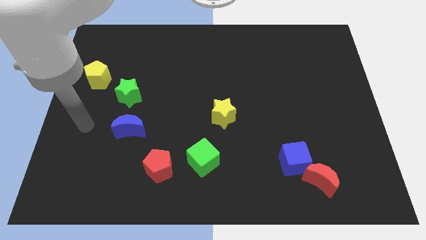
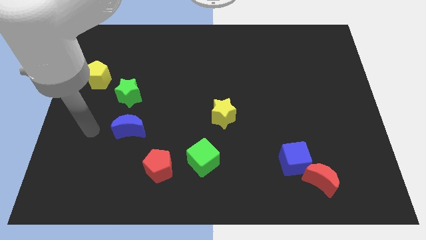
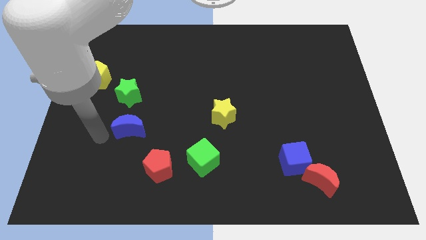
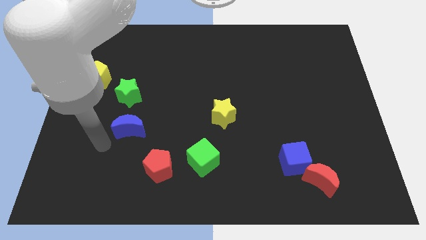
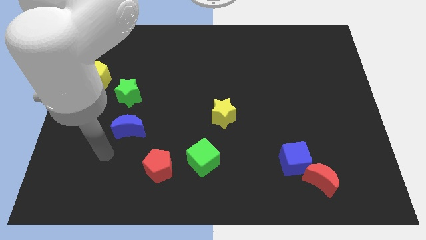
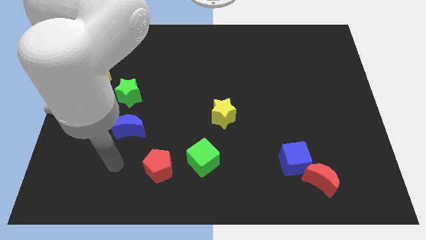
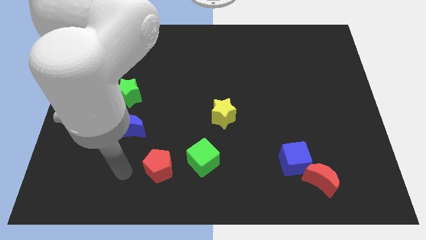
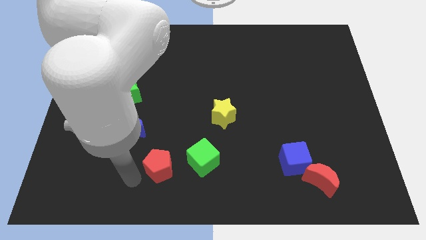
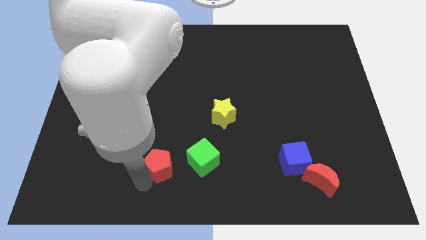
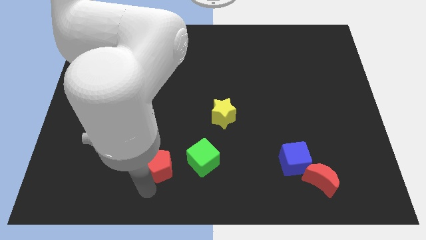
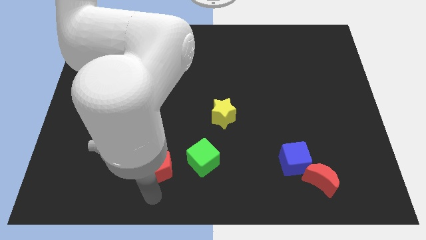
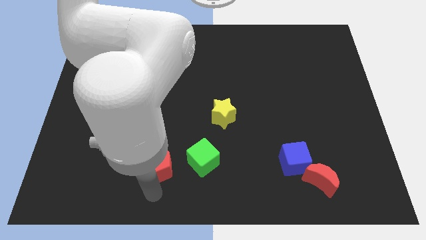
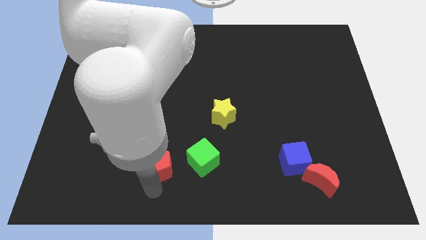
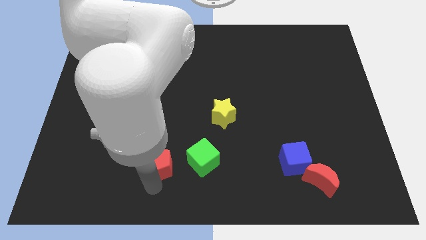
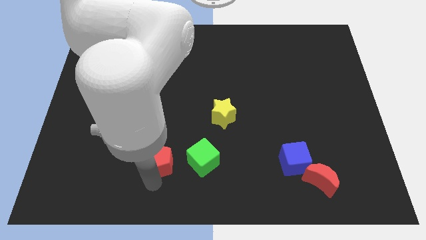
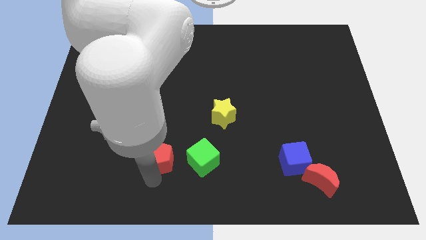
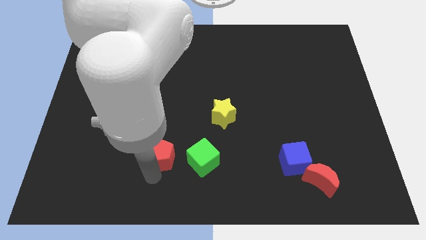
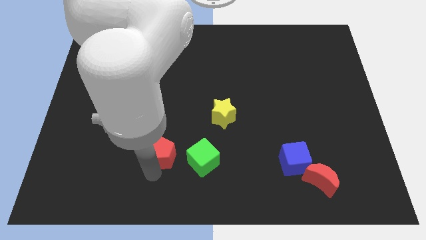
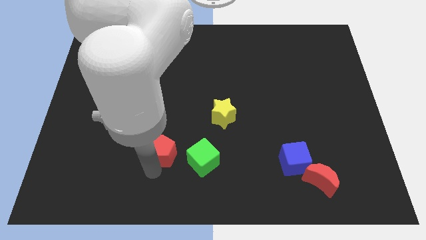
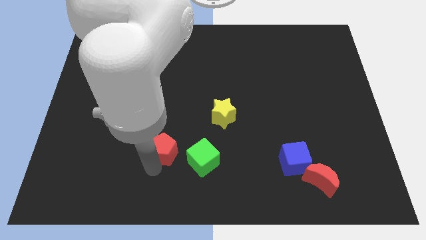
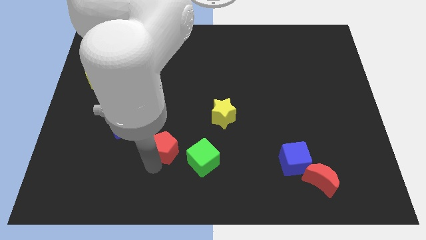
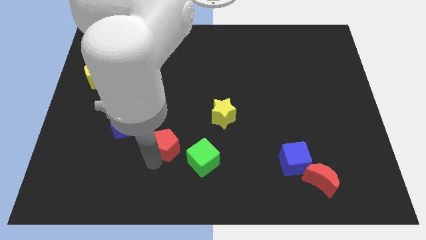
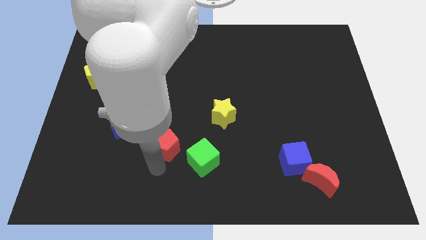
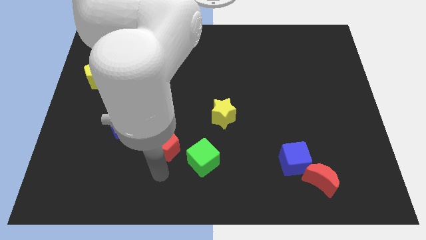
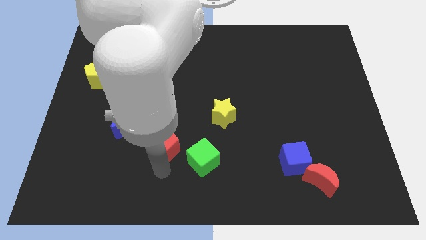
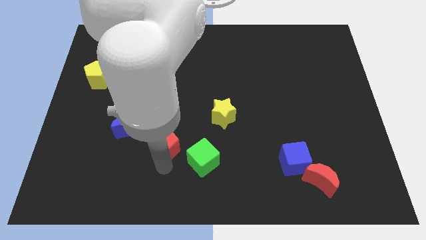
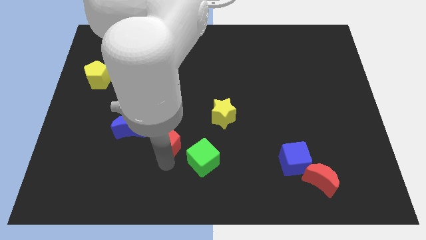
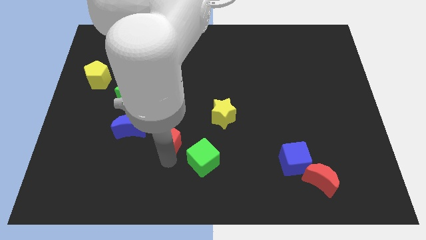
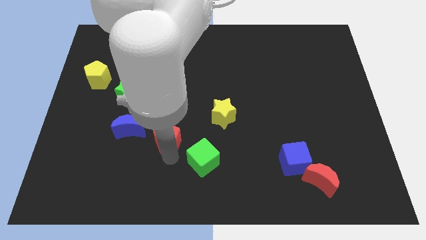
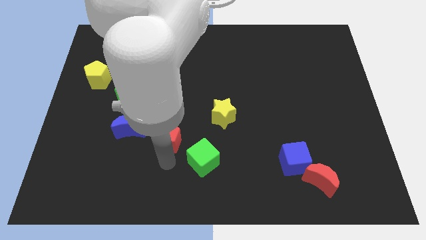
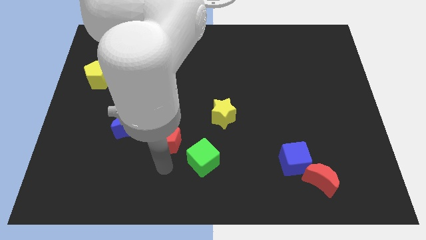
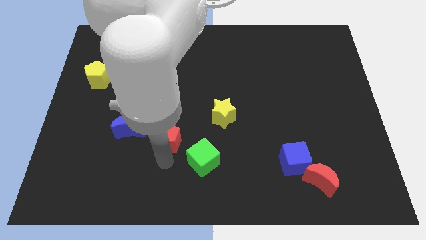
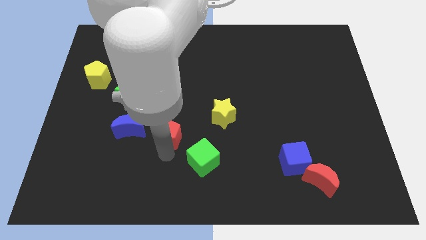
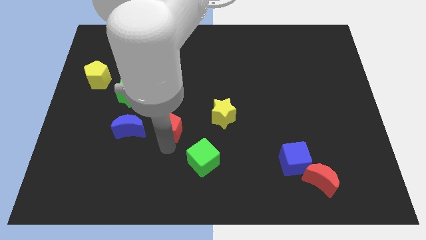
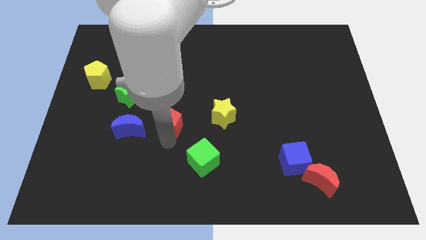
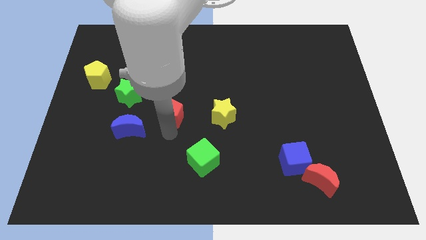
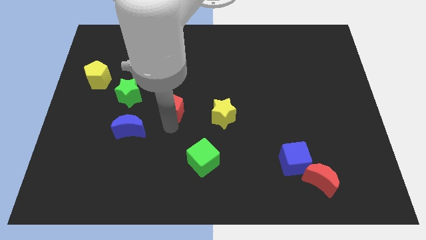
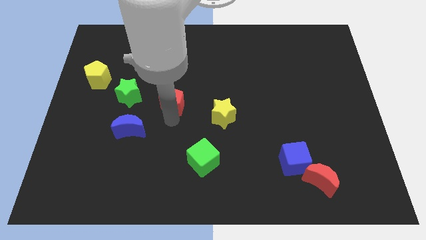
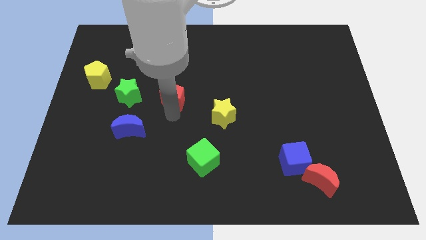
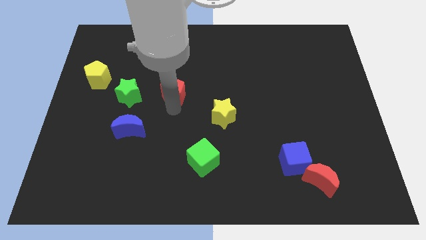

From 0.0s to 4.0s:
push the red pentagon upwards

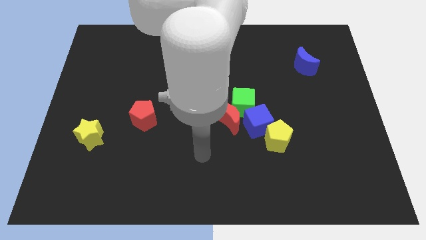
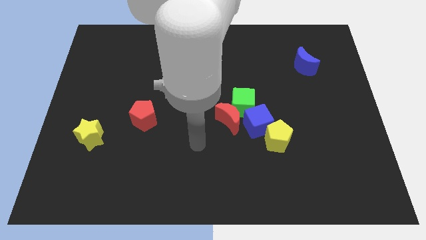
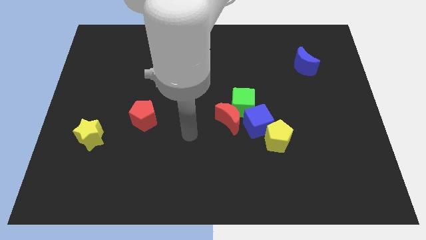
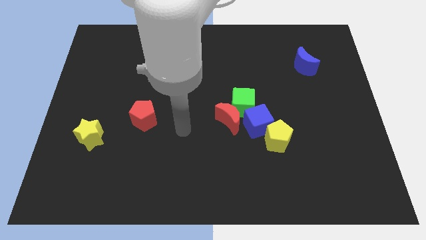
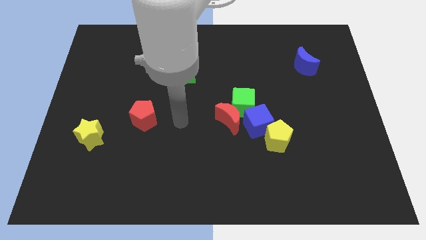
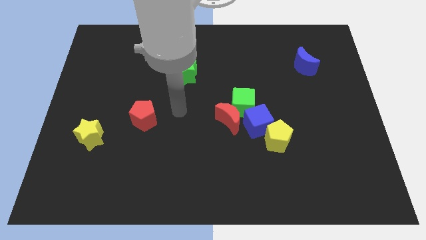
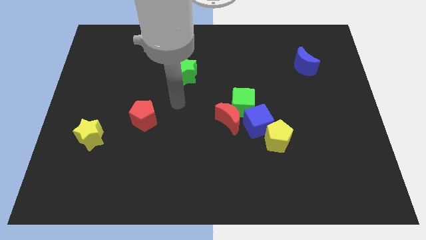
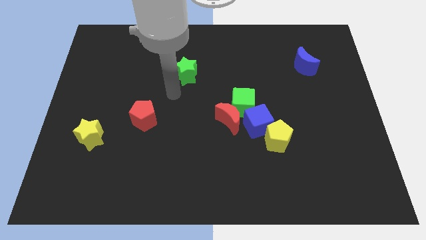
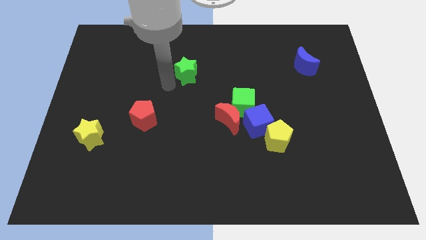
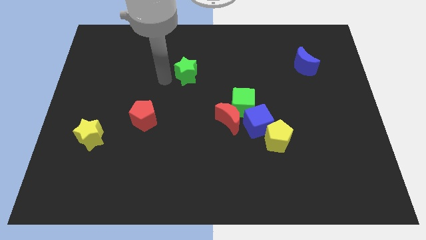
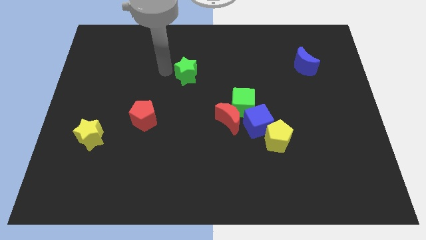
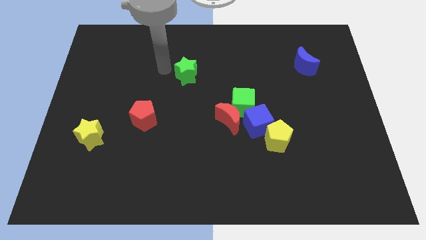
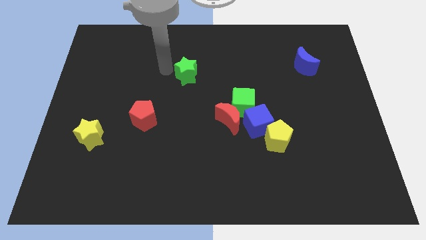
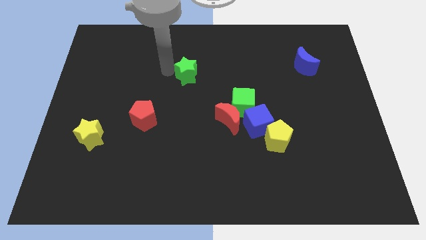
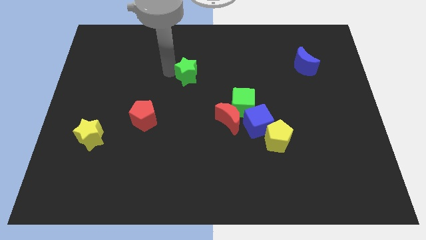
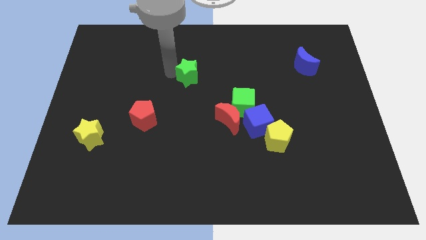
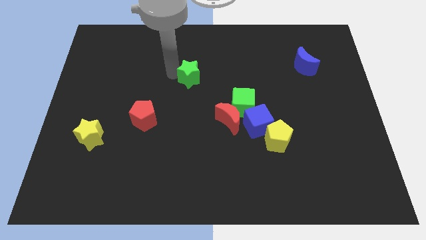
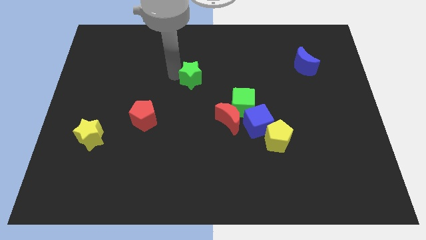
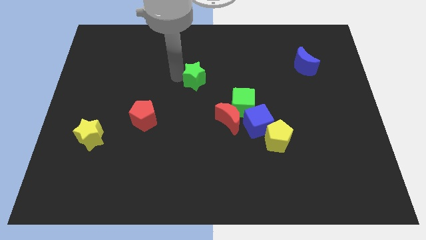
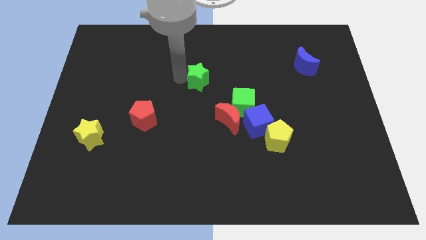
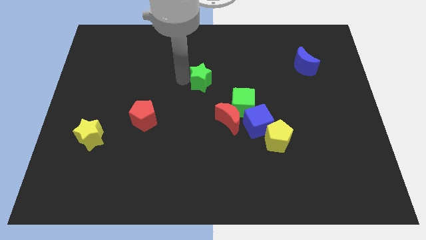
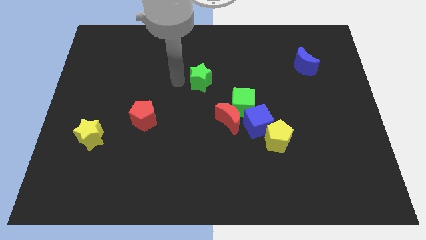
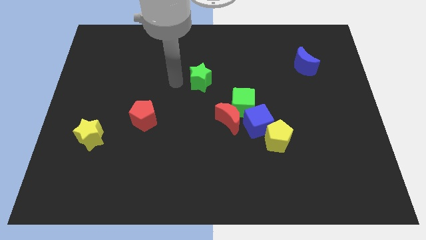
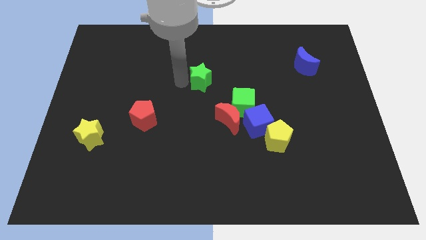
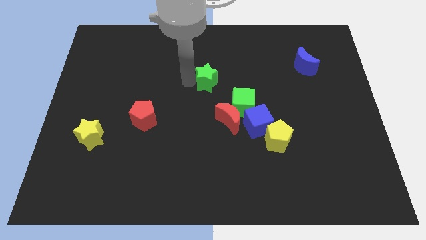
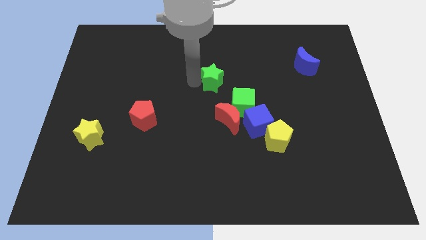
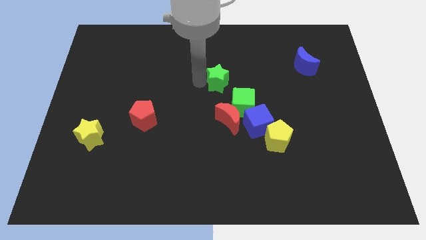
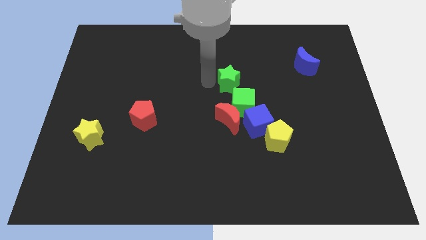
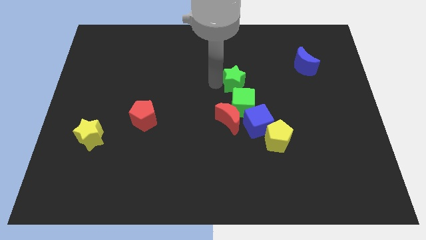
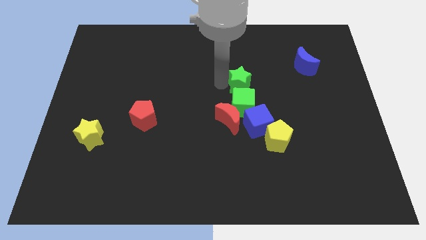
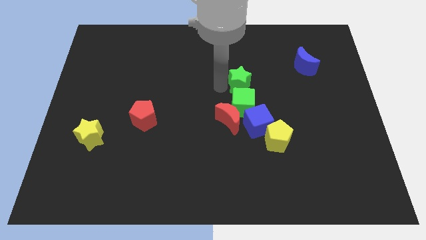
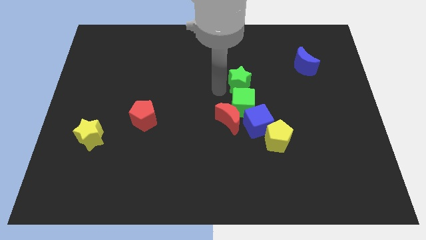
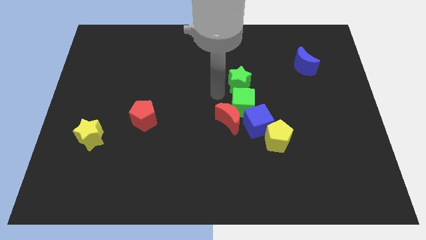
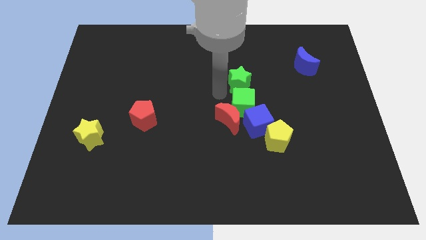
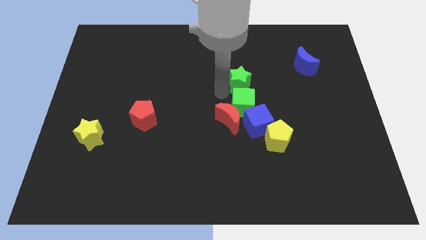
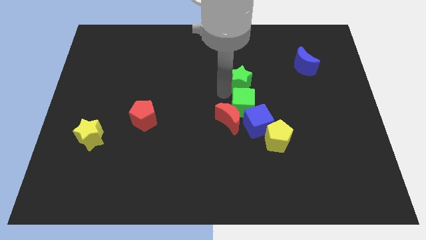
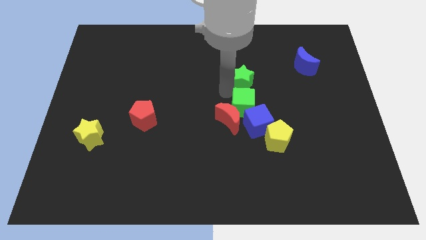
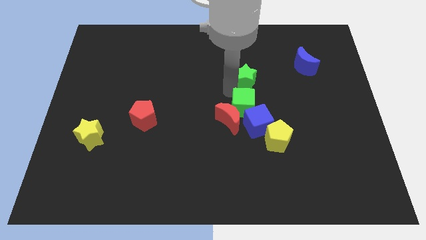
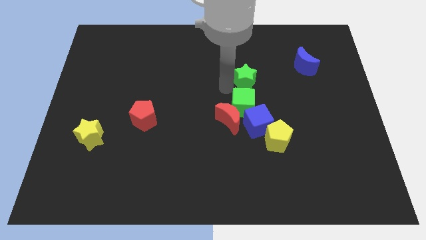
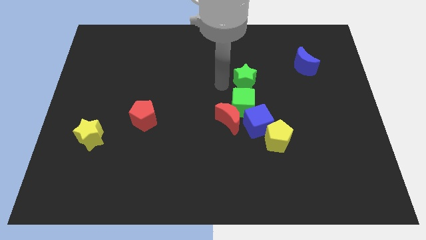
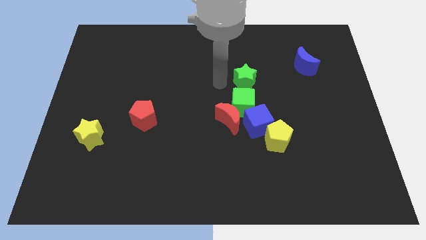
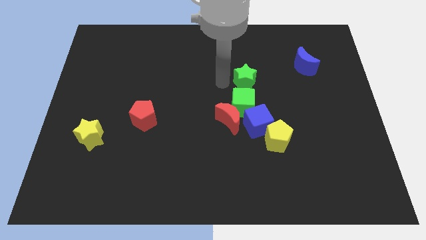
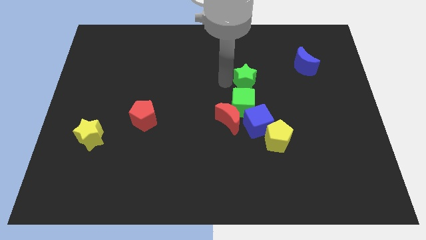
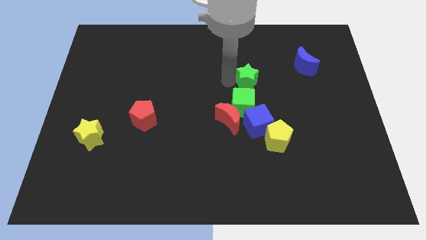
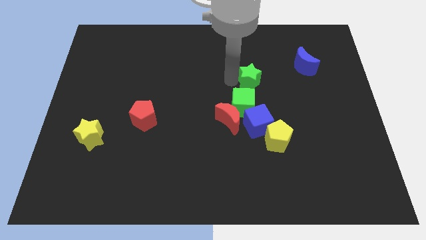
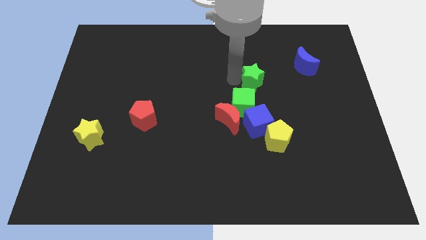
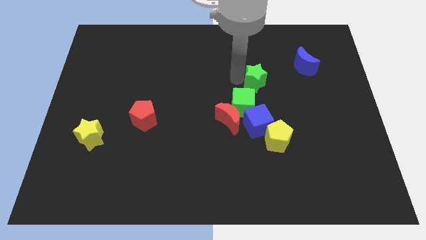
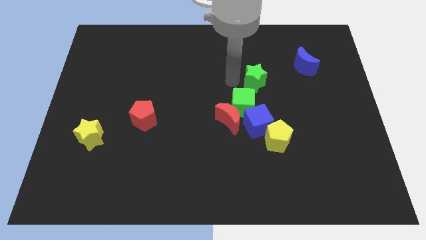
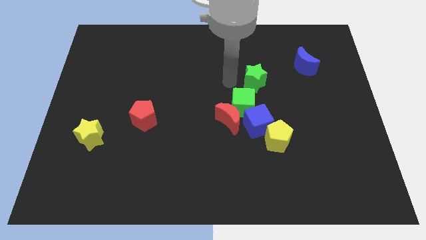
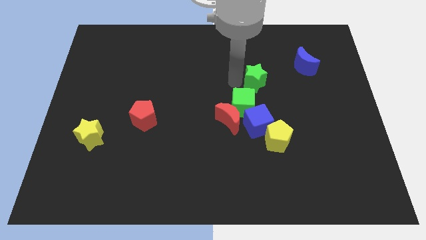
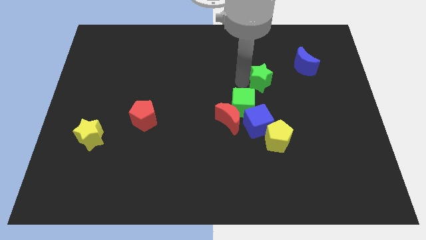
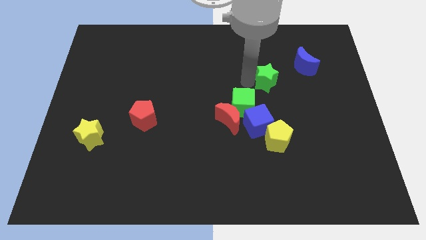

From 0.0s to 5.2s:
move the green star right
